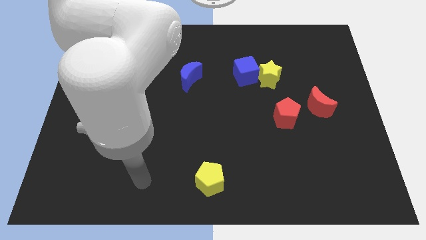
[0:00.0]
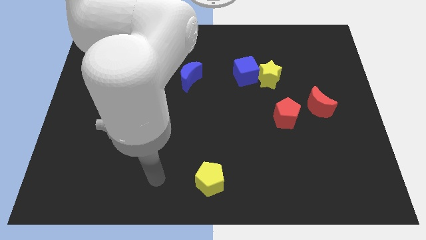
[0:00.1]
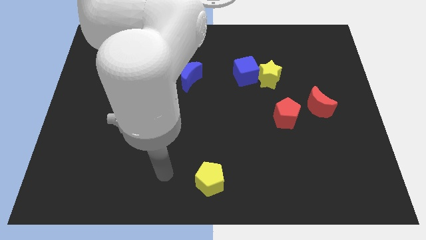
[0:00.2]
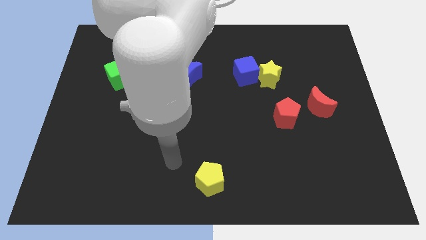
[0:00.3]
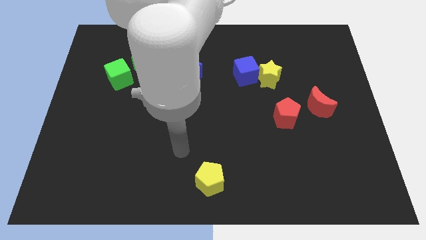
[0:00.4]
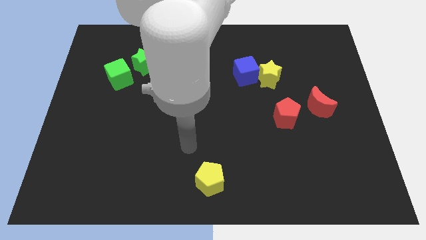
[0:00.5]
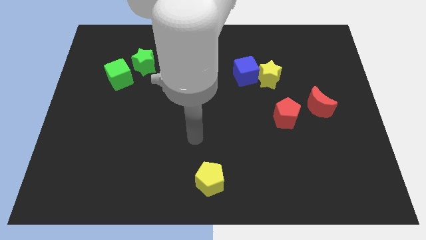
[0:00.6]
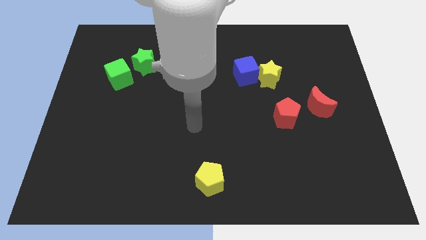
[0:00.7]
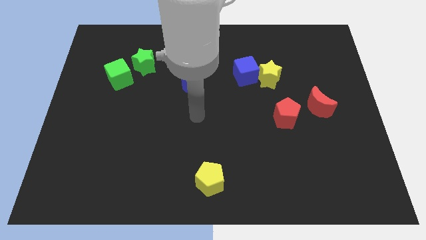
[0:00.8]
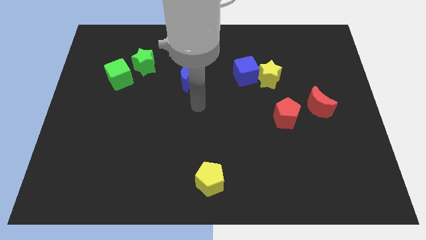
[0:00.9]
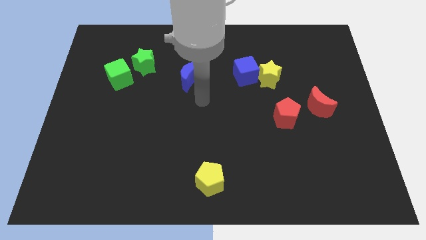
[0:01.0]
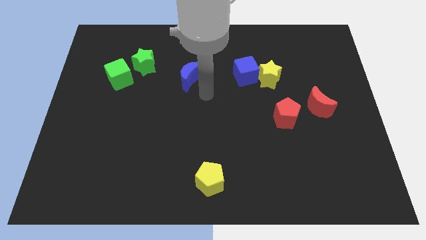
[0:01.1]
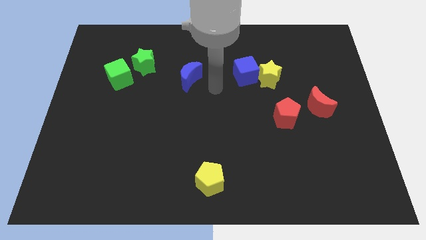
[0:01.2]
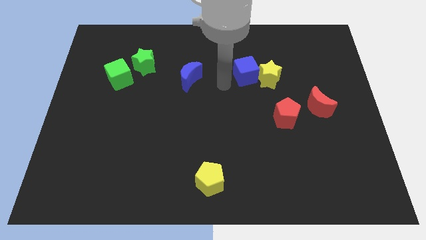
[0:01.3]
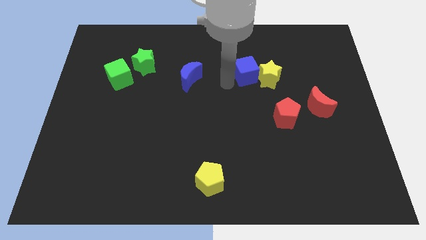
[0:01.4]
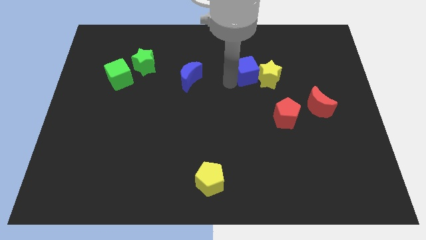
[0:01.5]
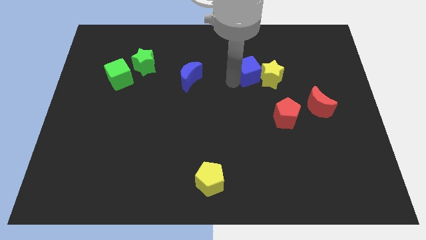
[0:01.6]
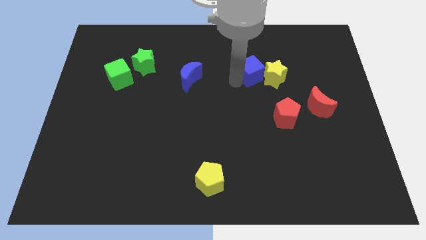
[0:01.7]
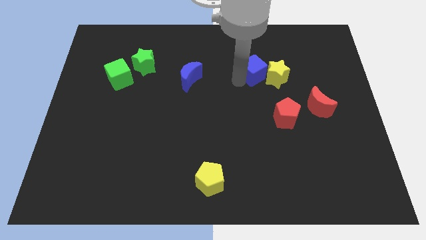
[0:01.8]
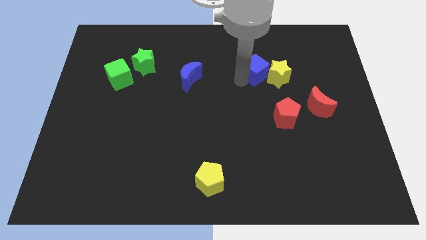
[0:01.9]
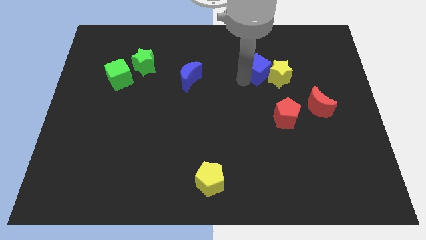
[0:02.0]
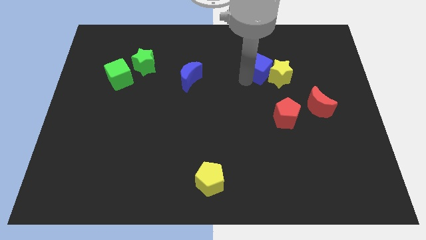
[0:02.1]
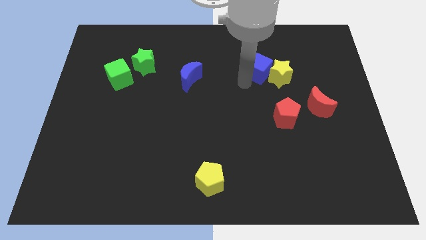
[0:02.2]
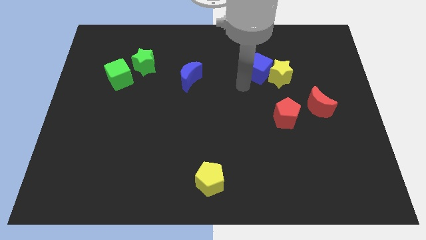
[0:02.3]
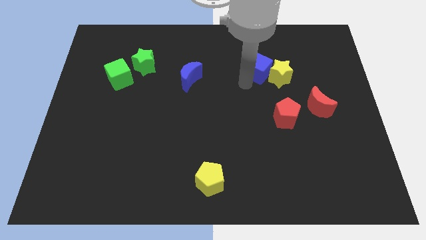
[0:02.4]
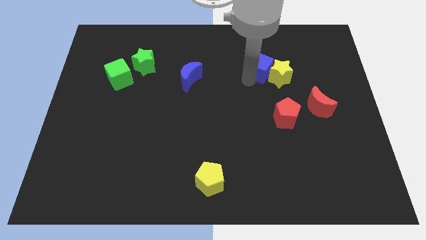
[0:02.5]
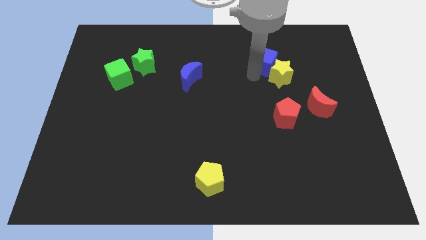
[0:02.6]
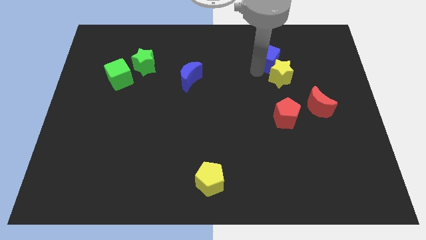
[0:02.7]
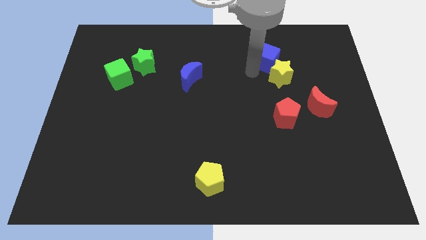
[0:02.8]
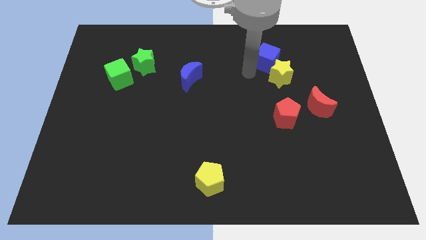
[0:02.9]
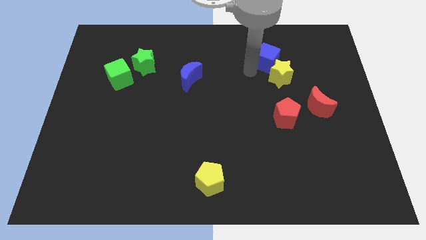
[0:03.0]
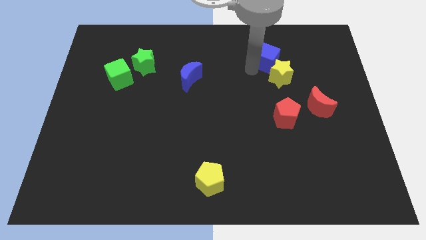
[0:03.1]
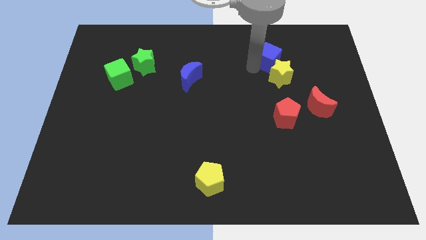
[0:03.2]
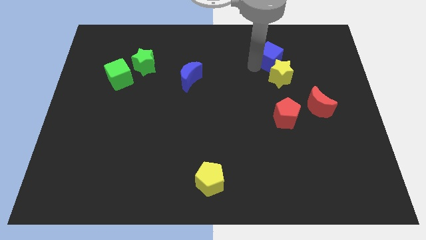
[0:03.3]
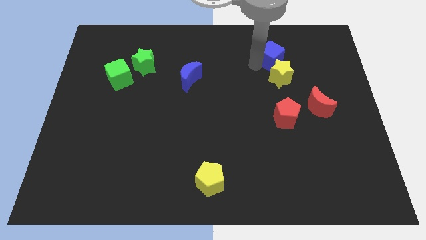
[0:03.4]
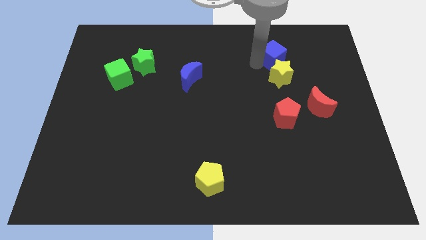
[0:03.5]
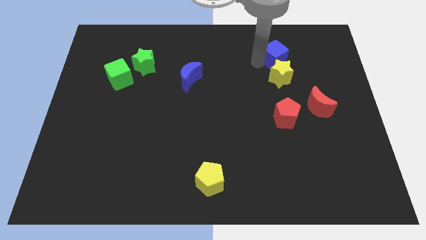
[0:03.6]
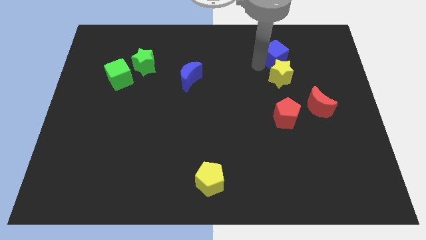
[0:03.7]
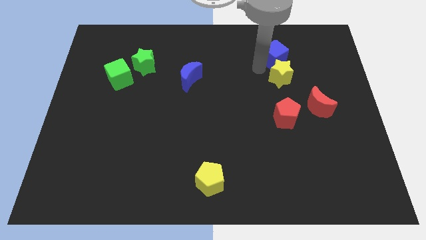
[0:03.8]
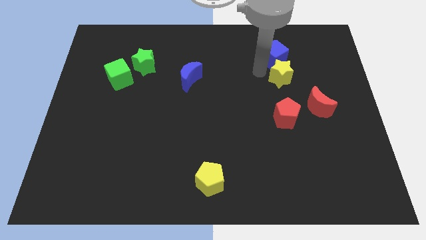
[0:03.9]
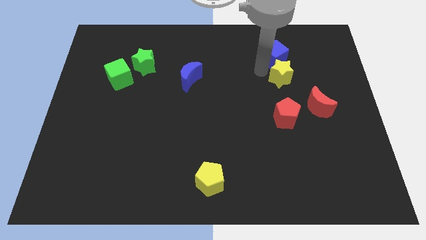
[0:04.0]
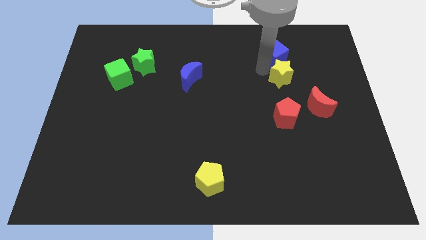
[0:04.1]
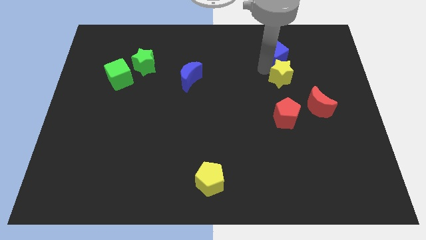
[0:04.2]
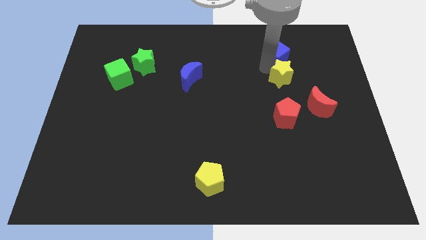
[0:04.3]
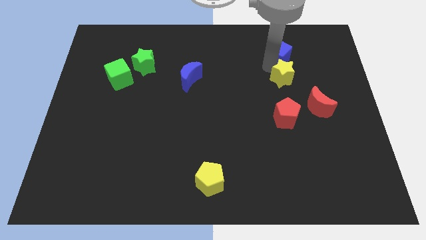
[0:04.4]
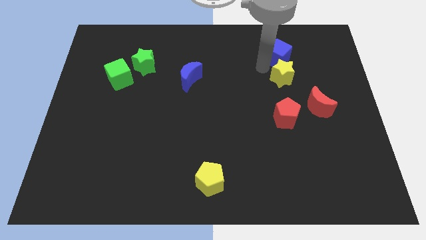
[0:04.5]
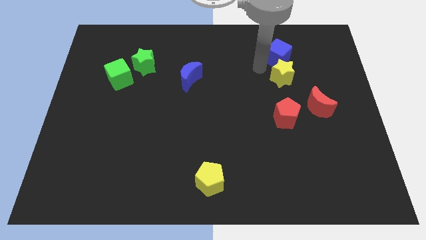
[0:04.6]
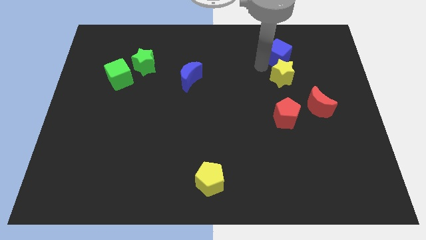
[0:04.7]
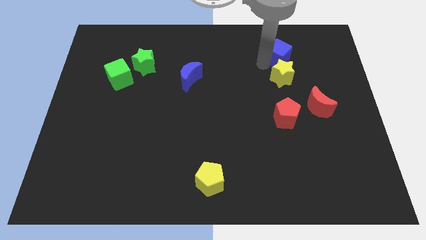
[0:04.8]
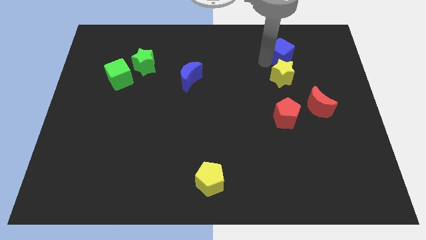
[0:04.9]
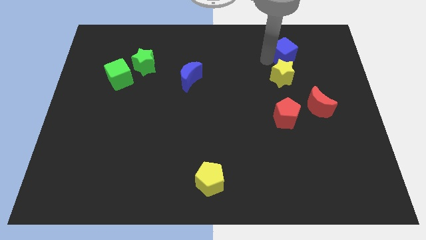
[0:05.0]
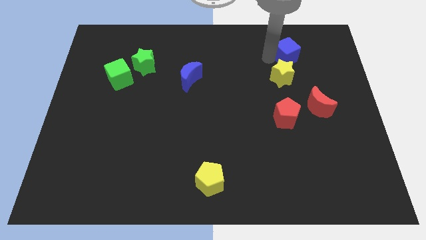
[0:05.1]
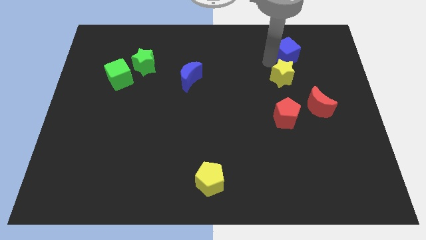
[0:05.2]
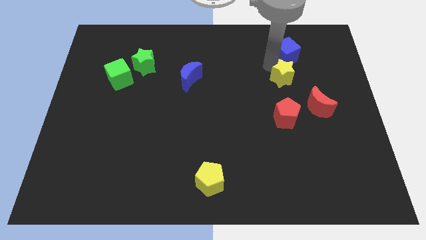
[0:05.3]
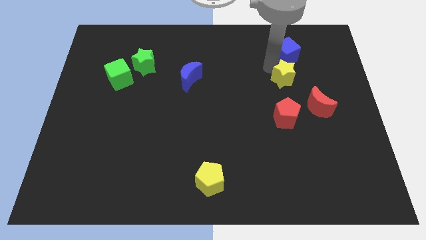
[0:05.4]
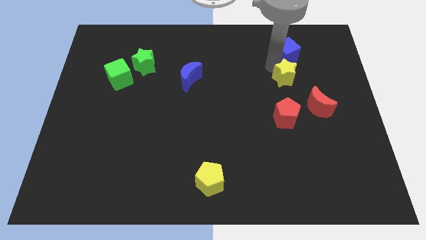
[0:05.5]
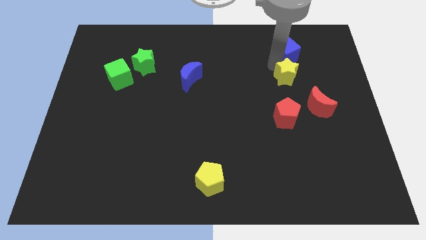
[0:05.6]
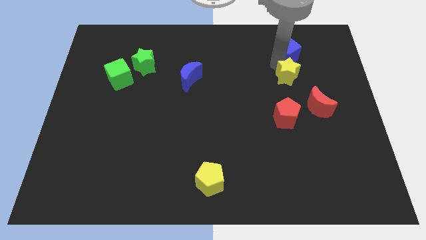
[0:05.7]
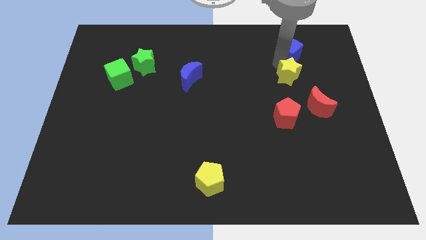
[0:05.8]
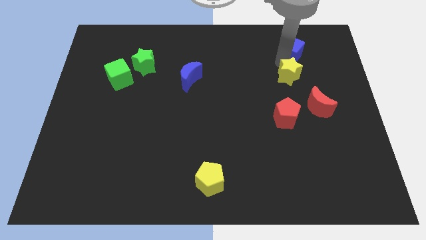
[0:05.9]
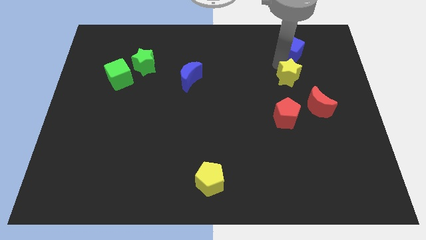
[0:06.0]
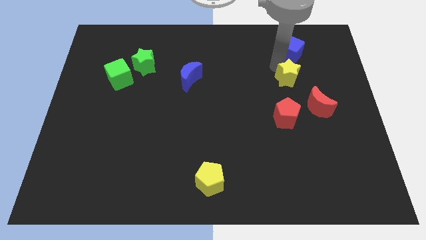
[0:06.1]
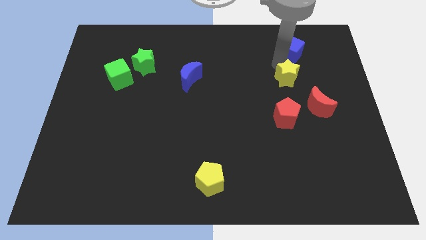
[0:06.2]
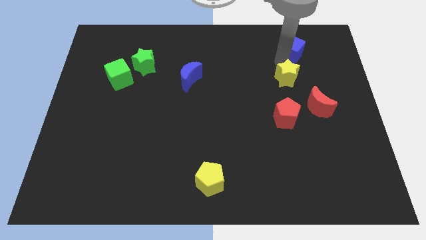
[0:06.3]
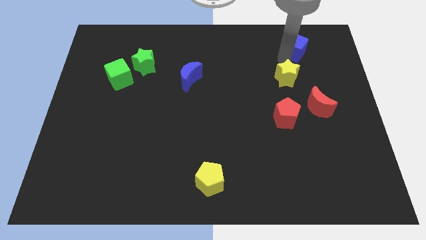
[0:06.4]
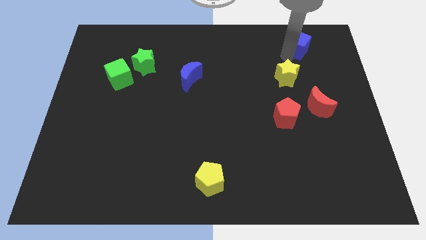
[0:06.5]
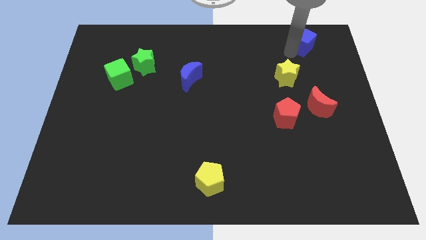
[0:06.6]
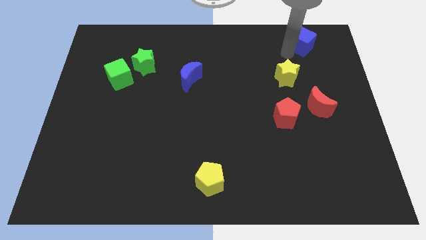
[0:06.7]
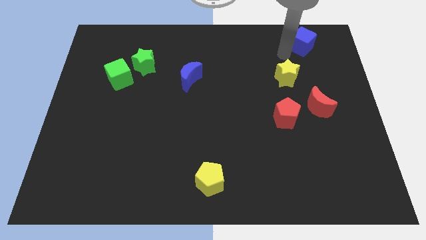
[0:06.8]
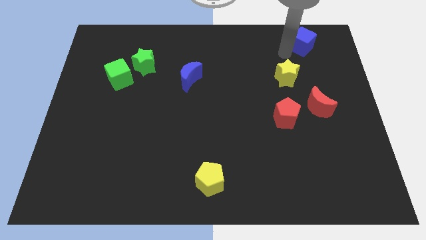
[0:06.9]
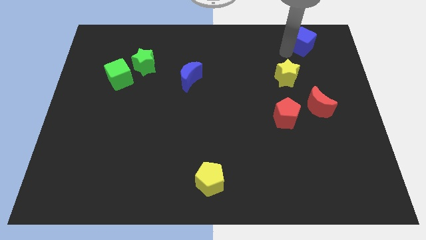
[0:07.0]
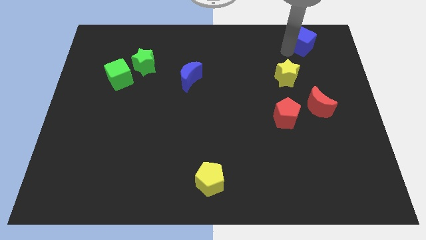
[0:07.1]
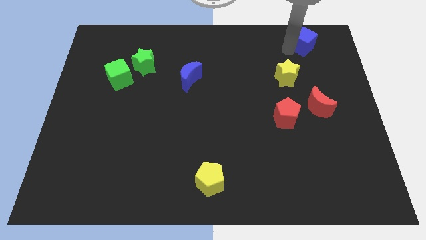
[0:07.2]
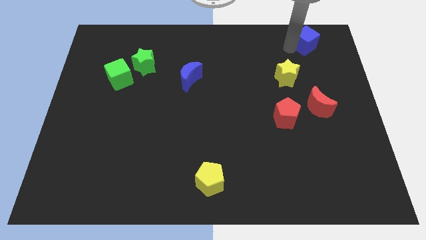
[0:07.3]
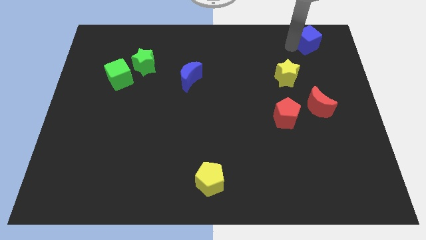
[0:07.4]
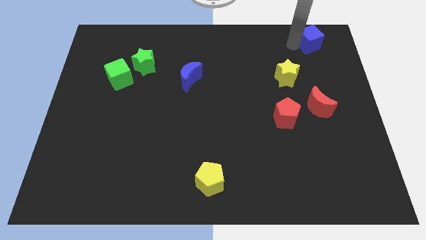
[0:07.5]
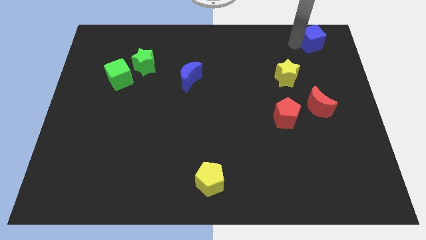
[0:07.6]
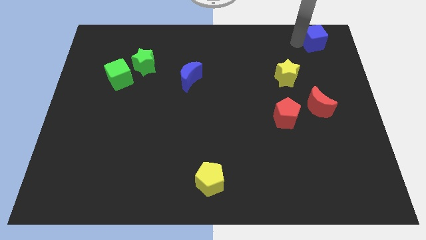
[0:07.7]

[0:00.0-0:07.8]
push the blue cube to the top right of the board
